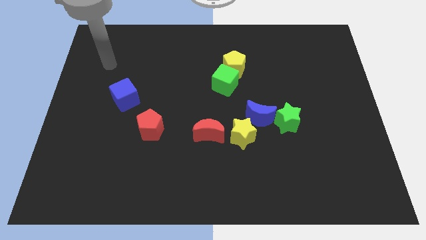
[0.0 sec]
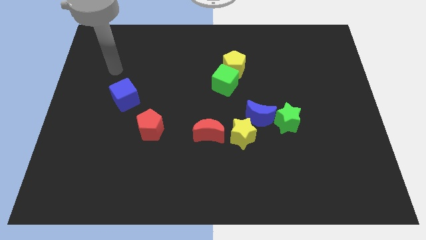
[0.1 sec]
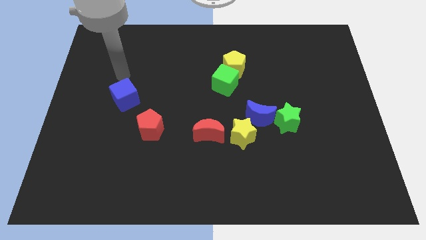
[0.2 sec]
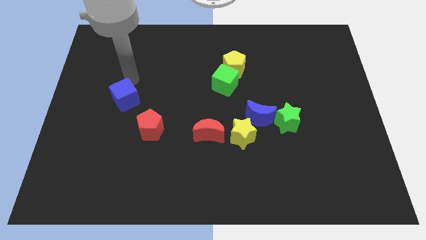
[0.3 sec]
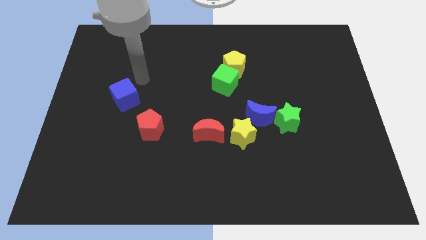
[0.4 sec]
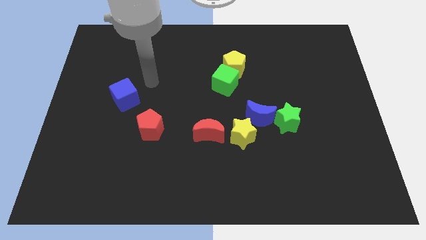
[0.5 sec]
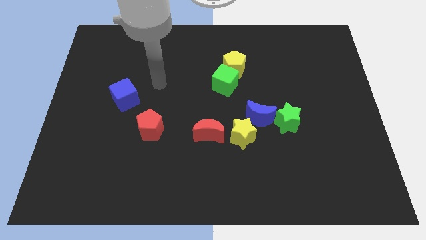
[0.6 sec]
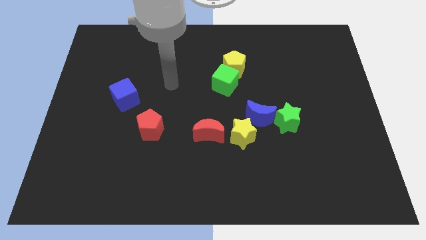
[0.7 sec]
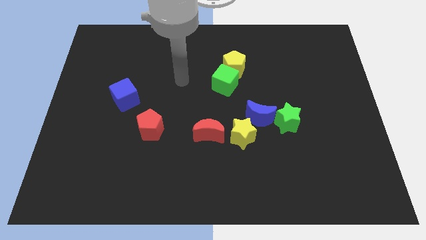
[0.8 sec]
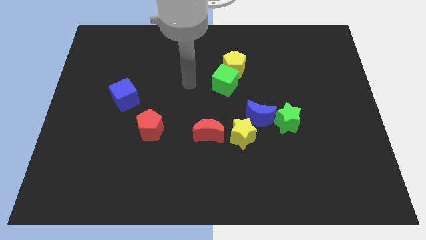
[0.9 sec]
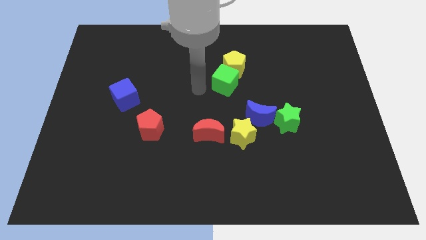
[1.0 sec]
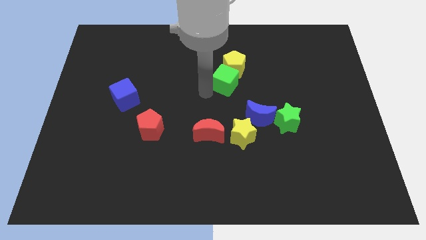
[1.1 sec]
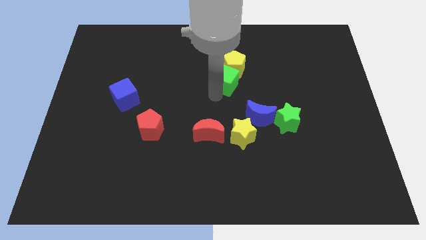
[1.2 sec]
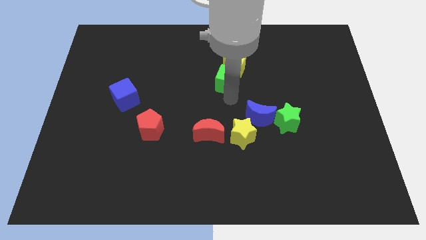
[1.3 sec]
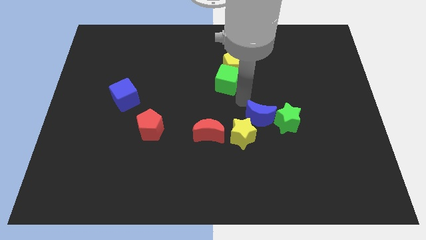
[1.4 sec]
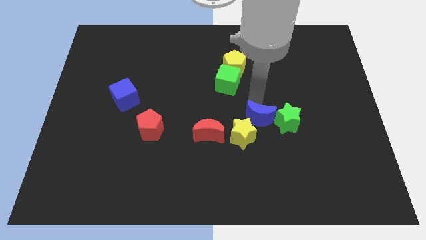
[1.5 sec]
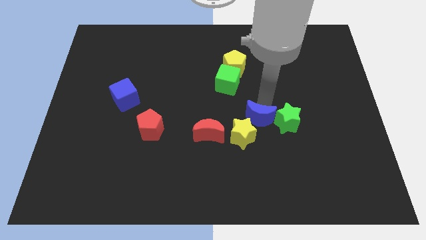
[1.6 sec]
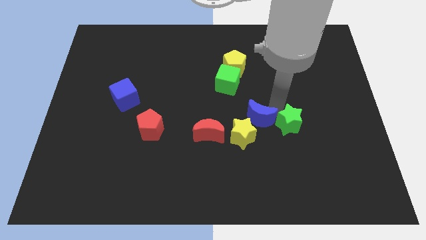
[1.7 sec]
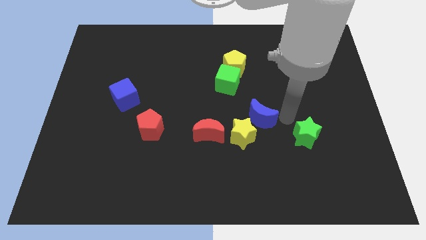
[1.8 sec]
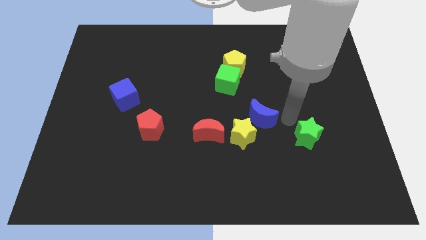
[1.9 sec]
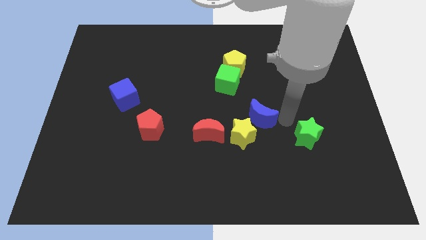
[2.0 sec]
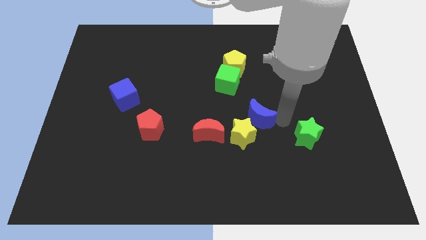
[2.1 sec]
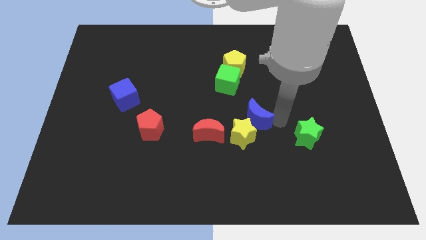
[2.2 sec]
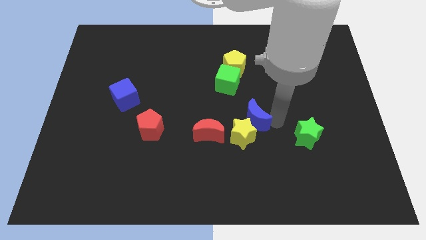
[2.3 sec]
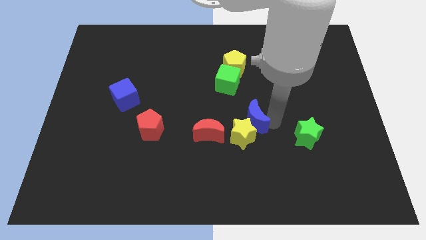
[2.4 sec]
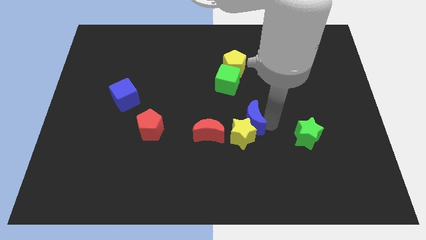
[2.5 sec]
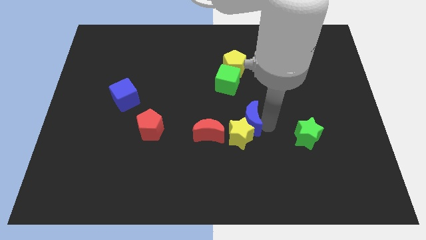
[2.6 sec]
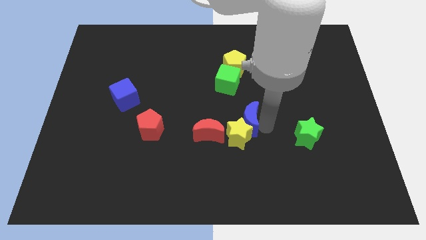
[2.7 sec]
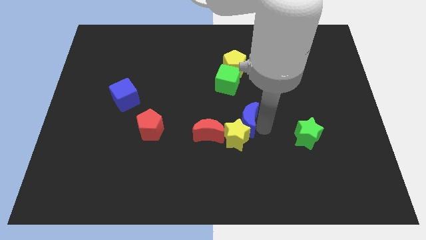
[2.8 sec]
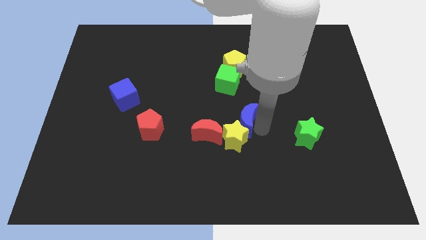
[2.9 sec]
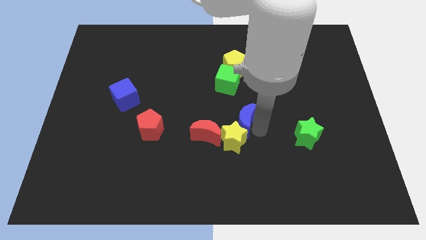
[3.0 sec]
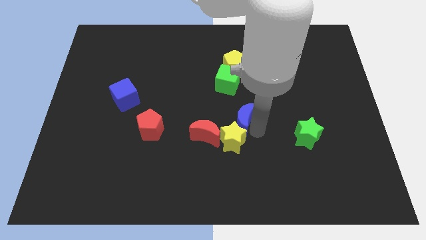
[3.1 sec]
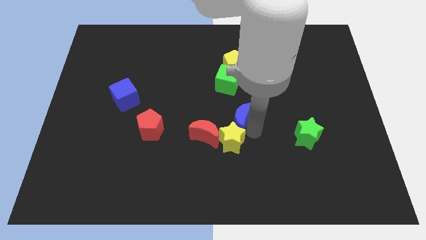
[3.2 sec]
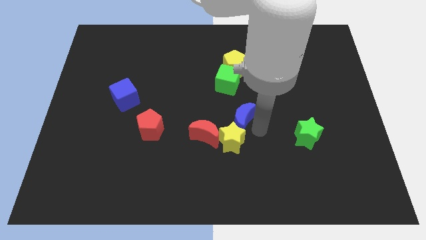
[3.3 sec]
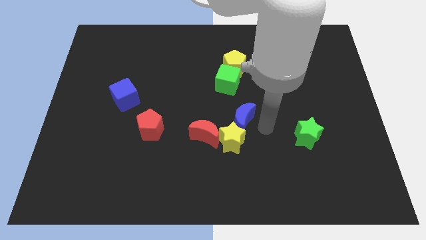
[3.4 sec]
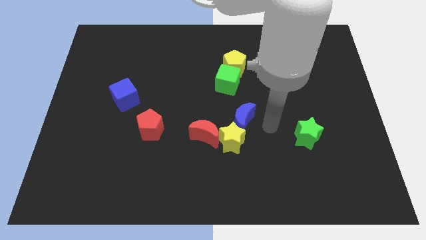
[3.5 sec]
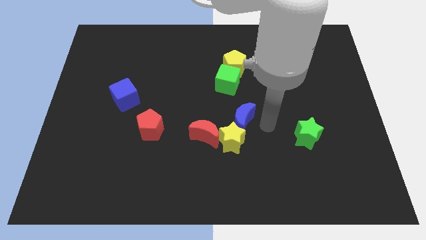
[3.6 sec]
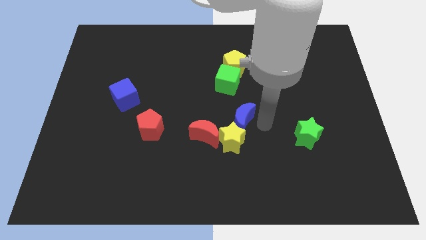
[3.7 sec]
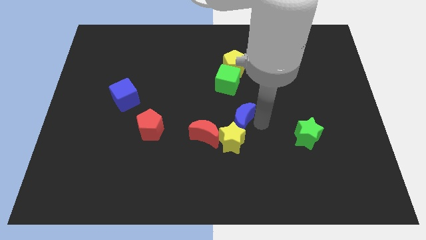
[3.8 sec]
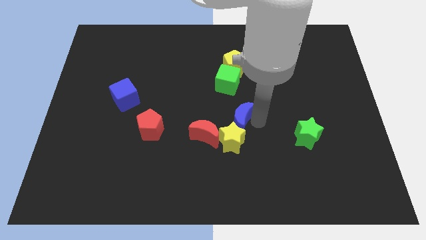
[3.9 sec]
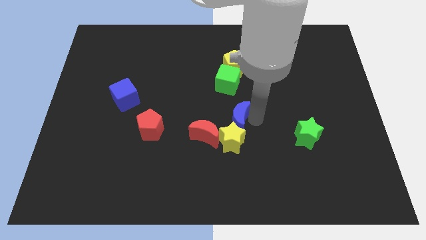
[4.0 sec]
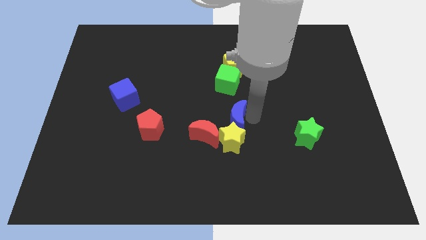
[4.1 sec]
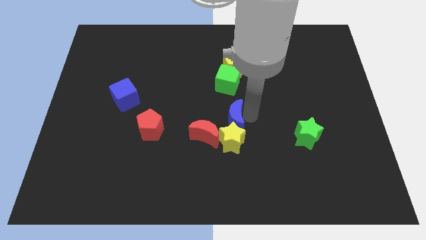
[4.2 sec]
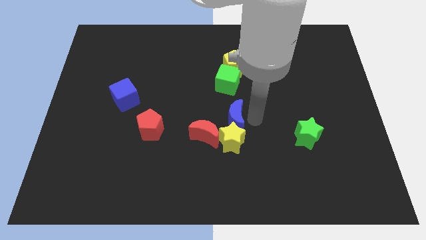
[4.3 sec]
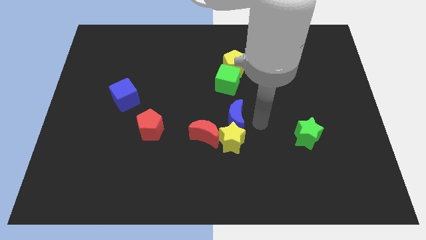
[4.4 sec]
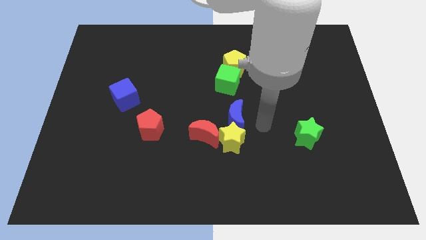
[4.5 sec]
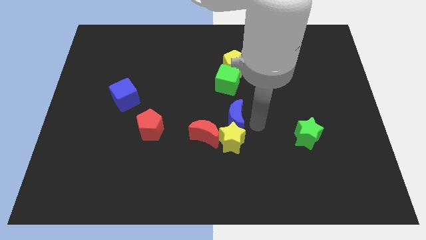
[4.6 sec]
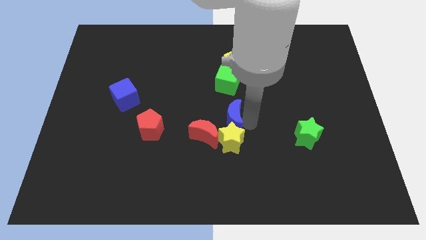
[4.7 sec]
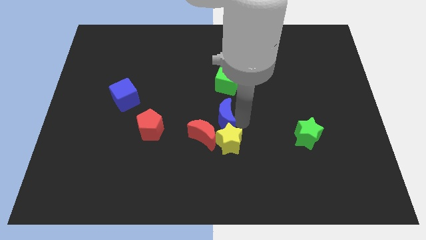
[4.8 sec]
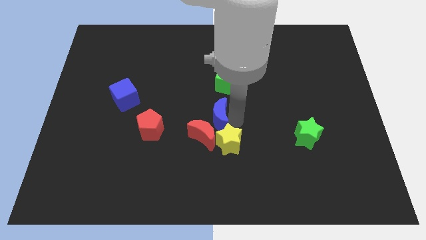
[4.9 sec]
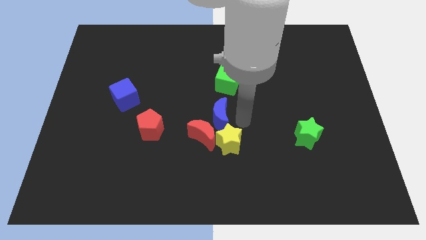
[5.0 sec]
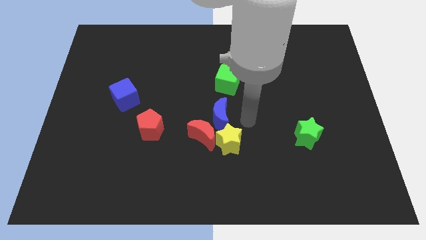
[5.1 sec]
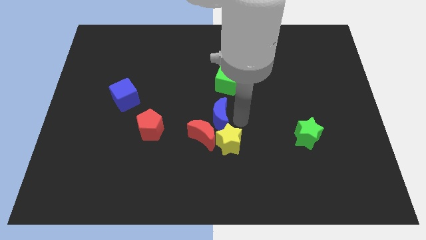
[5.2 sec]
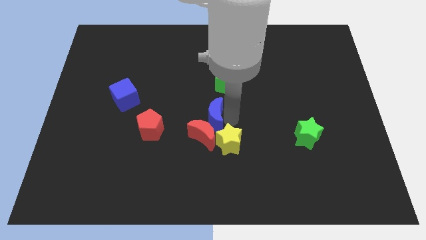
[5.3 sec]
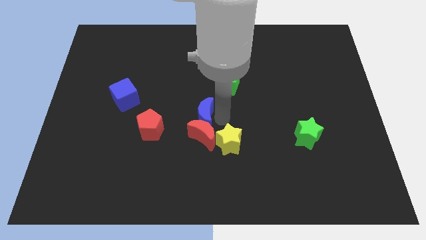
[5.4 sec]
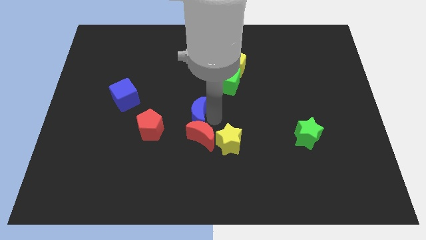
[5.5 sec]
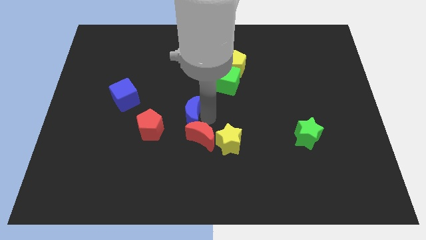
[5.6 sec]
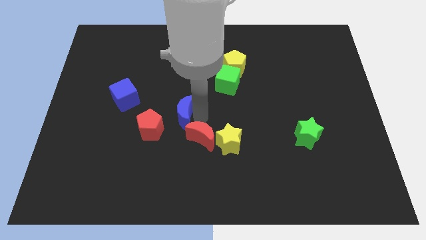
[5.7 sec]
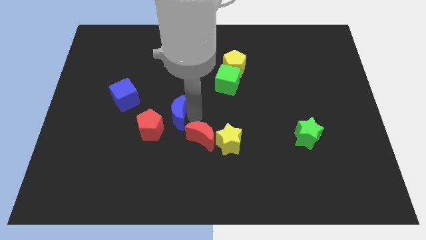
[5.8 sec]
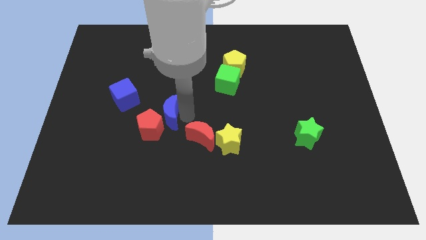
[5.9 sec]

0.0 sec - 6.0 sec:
slide the blue moon to the left

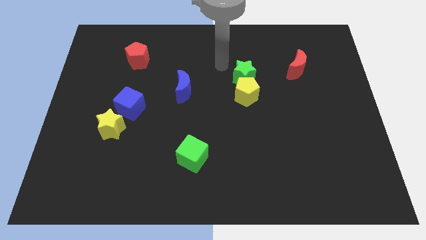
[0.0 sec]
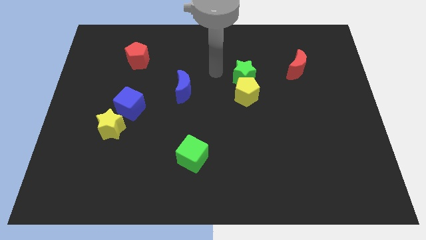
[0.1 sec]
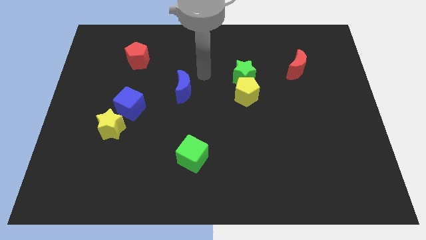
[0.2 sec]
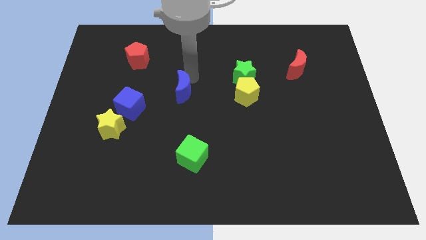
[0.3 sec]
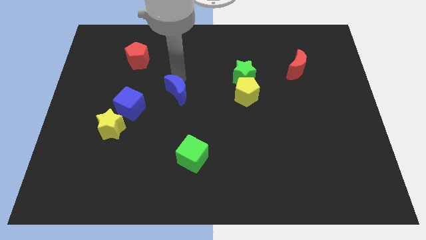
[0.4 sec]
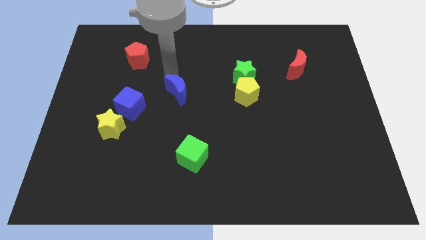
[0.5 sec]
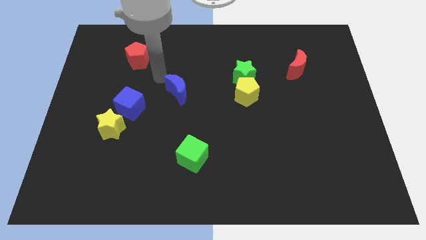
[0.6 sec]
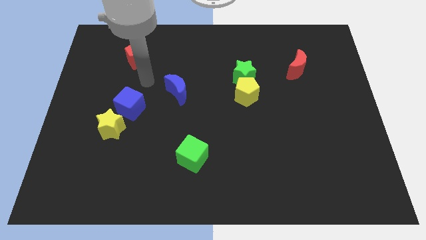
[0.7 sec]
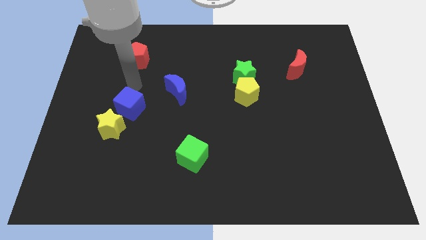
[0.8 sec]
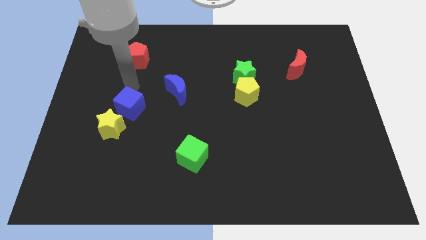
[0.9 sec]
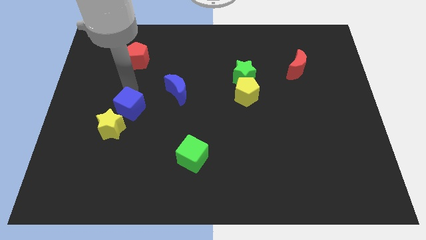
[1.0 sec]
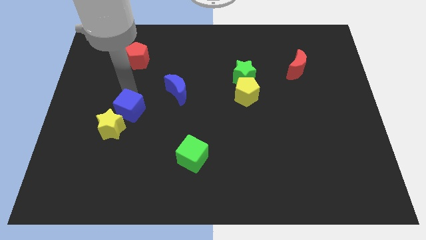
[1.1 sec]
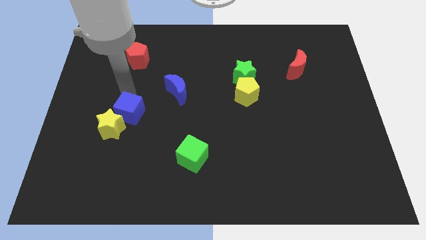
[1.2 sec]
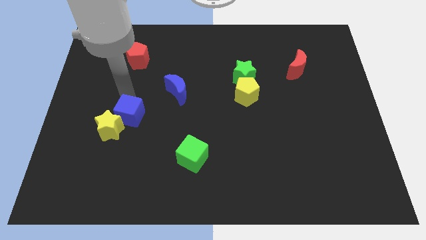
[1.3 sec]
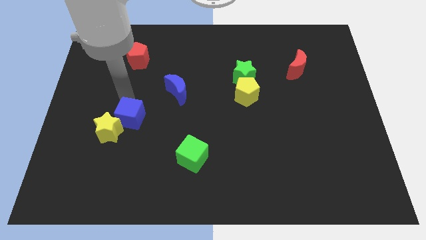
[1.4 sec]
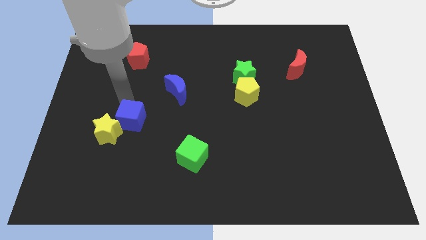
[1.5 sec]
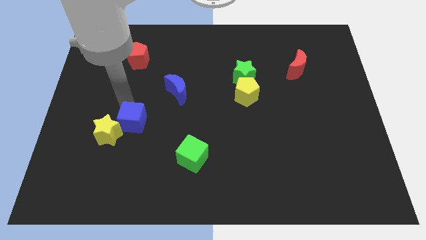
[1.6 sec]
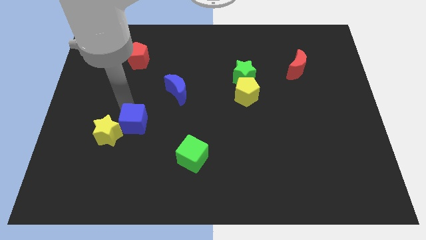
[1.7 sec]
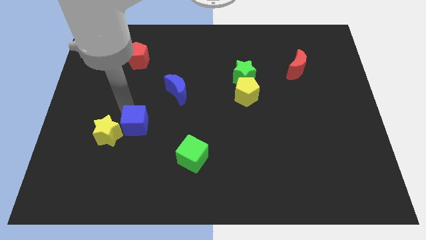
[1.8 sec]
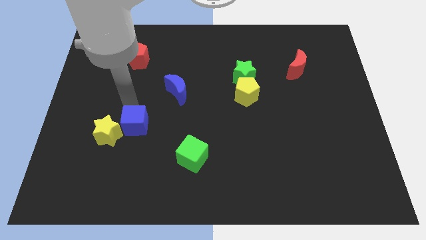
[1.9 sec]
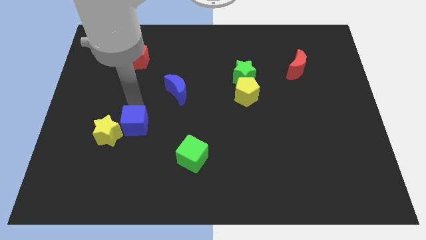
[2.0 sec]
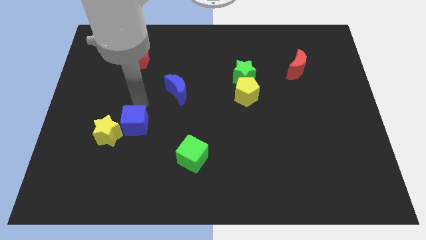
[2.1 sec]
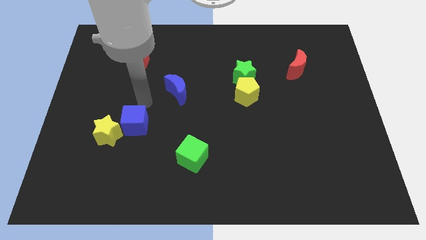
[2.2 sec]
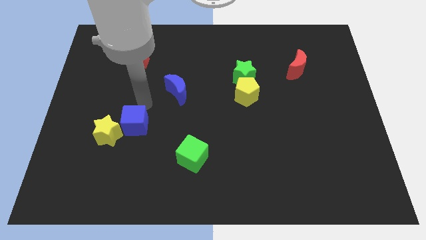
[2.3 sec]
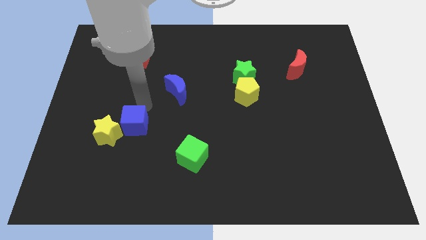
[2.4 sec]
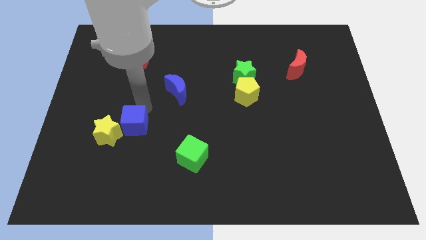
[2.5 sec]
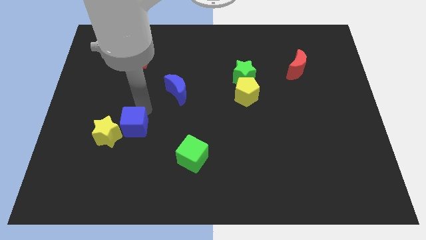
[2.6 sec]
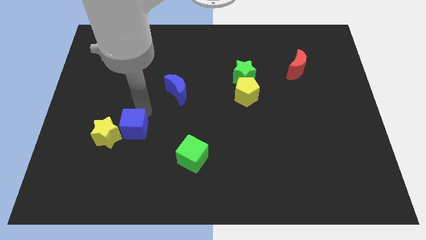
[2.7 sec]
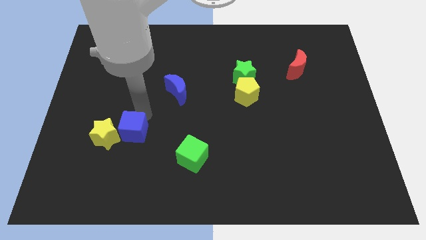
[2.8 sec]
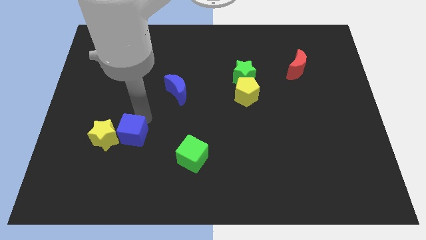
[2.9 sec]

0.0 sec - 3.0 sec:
slide the blue cube downwards slightly
